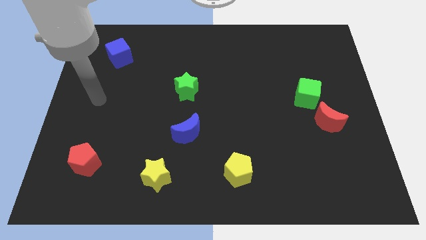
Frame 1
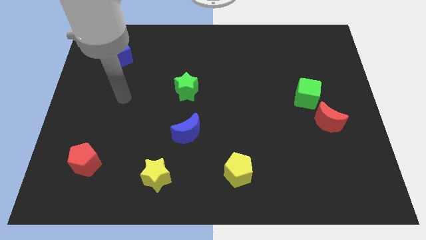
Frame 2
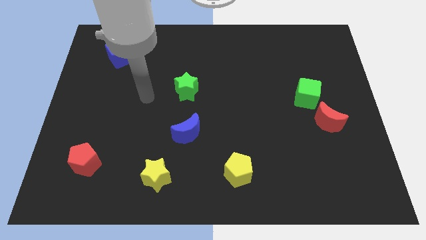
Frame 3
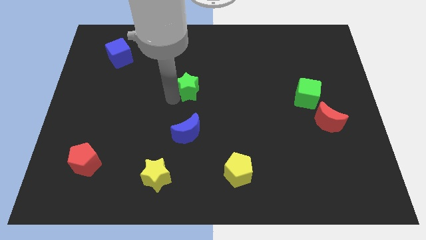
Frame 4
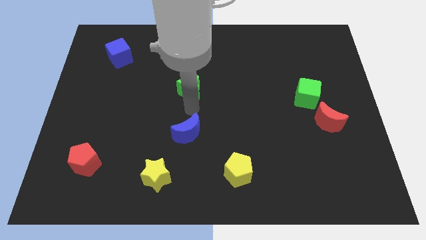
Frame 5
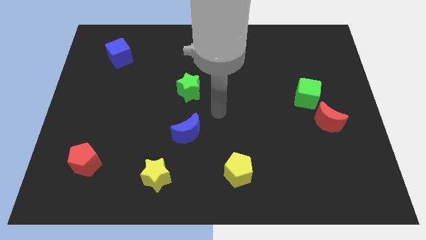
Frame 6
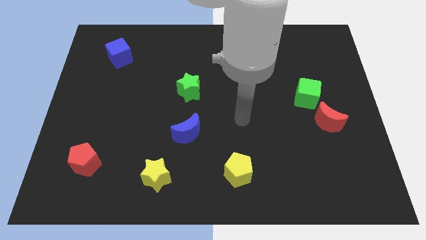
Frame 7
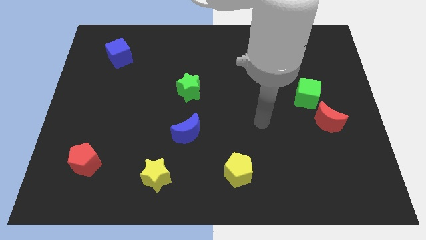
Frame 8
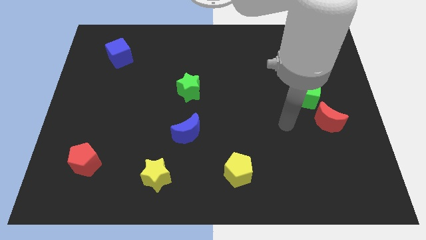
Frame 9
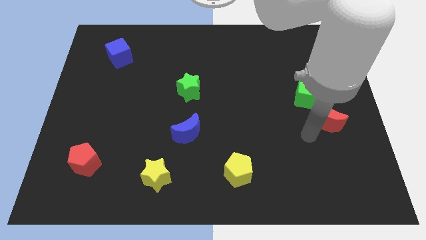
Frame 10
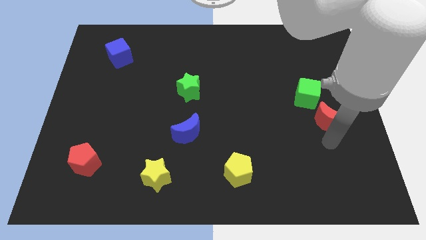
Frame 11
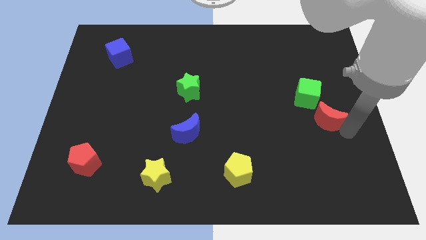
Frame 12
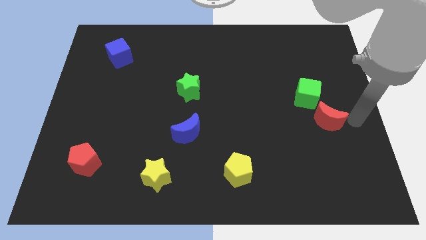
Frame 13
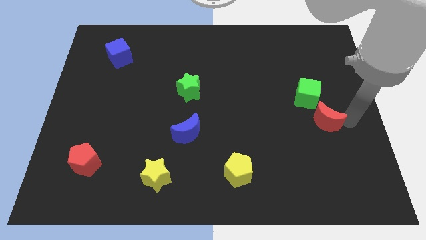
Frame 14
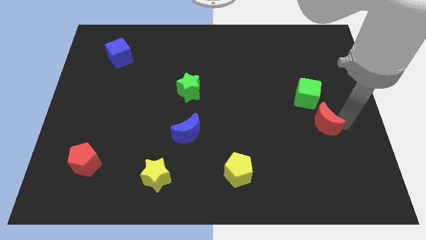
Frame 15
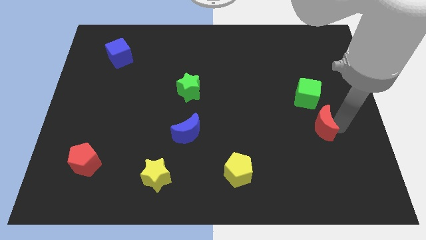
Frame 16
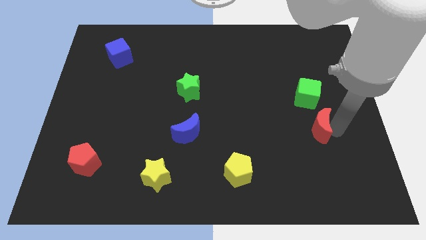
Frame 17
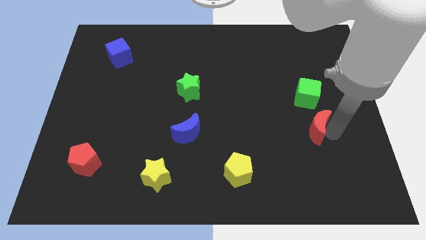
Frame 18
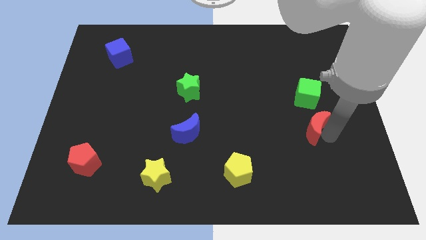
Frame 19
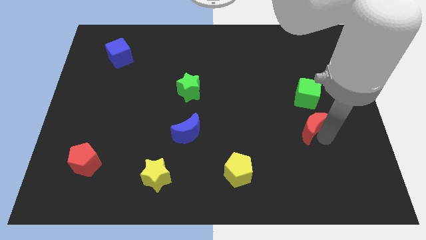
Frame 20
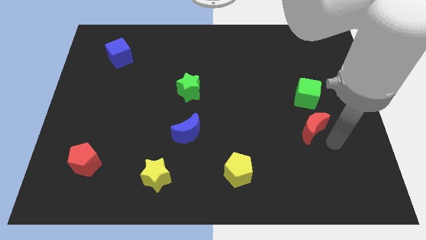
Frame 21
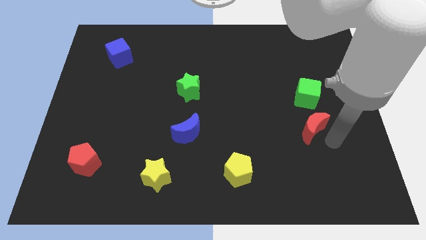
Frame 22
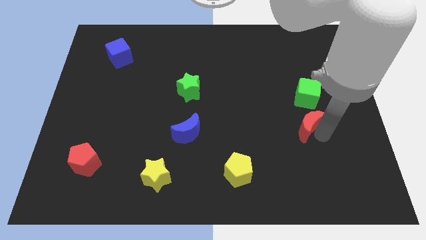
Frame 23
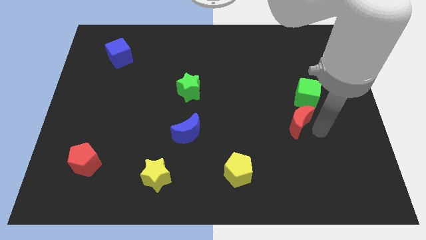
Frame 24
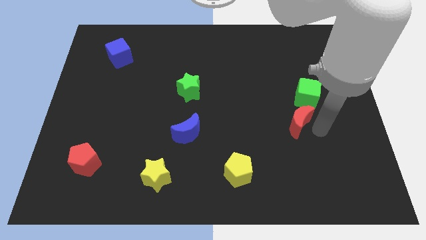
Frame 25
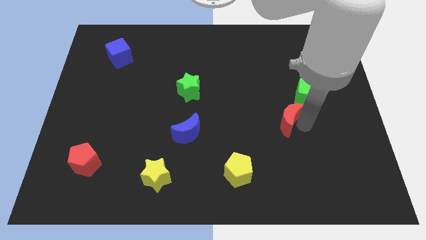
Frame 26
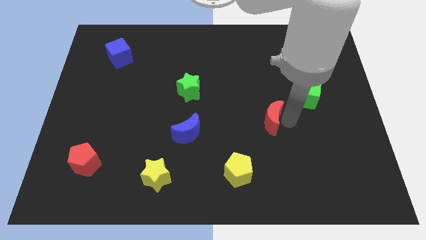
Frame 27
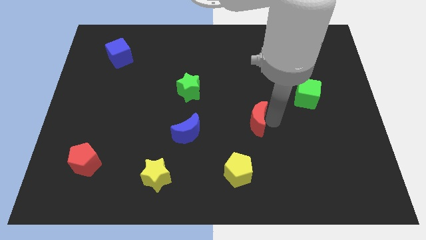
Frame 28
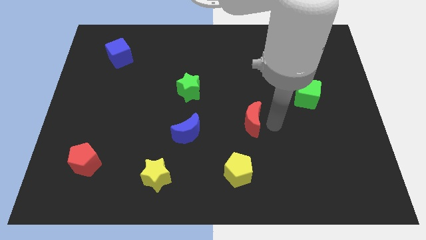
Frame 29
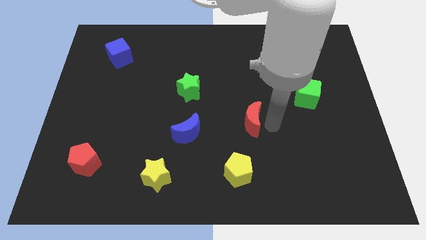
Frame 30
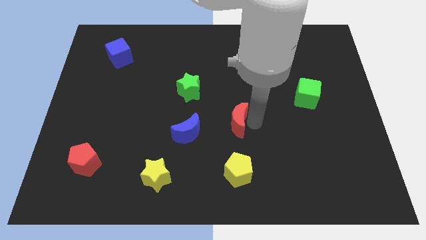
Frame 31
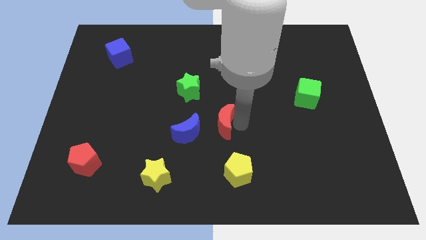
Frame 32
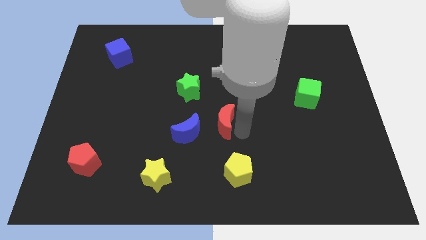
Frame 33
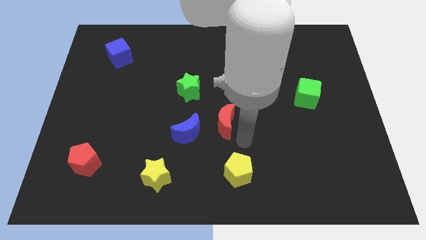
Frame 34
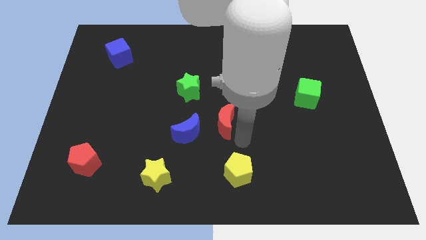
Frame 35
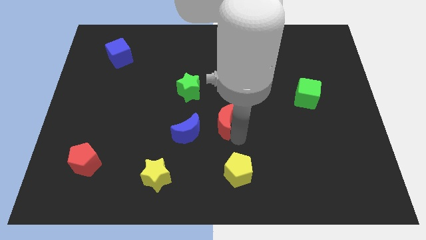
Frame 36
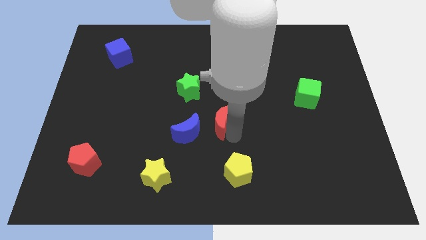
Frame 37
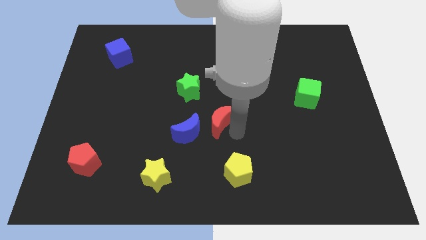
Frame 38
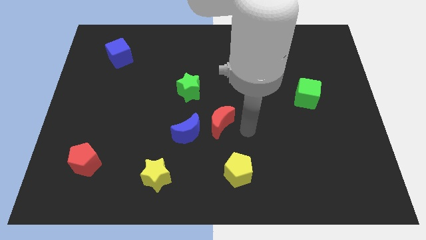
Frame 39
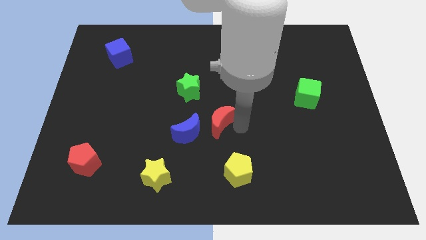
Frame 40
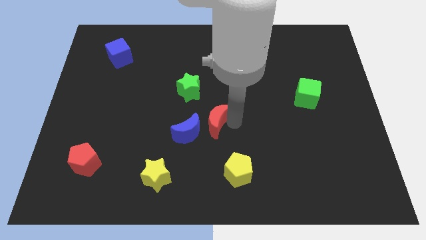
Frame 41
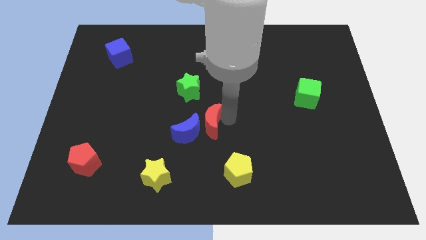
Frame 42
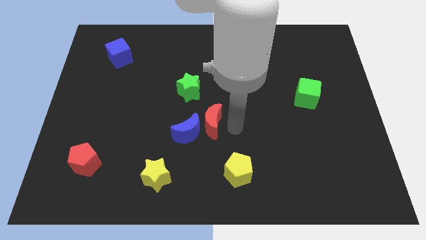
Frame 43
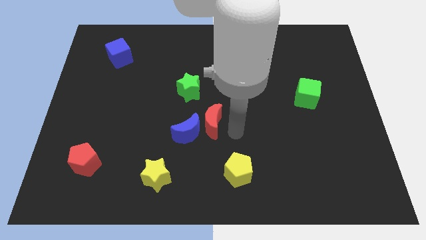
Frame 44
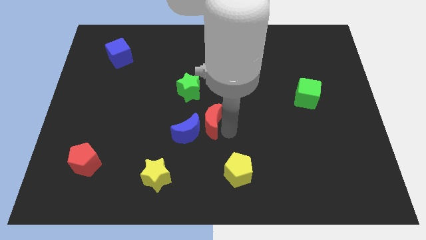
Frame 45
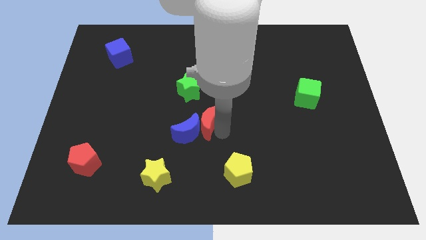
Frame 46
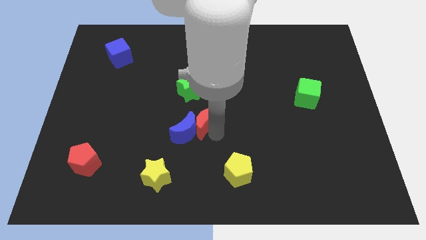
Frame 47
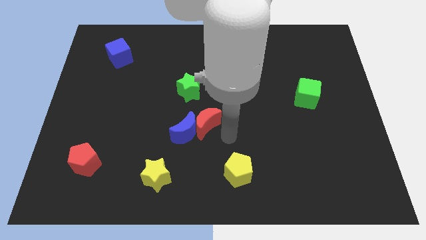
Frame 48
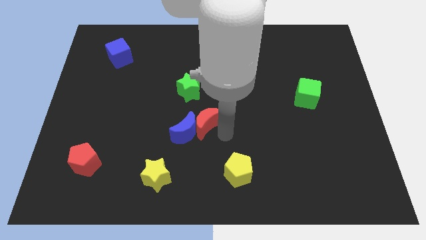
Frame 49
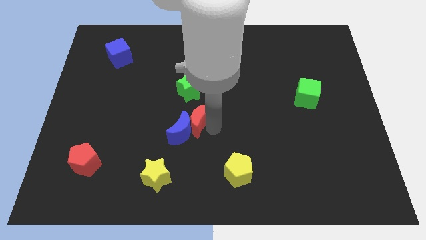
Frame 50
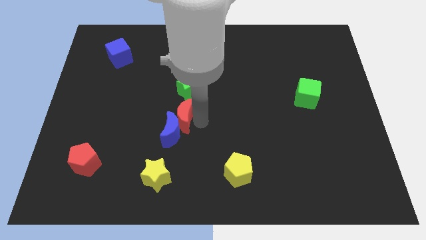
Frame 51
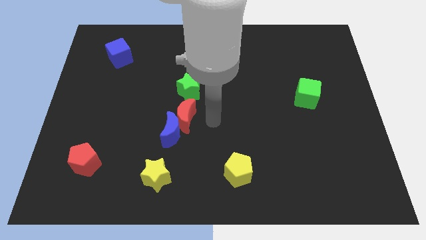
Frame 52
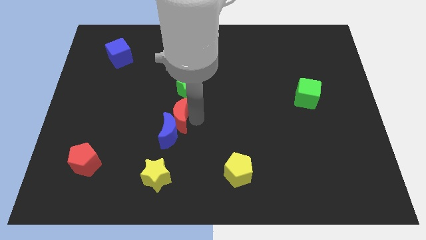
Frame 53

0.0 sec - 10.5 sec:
slide the red moon diagonally up and to the left of the blue moon

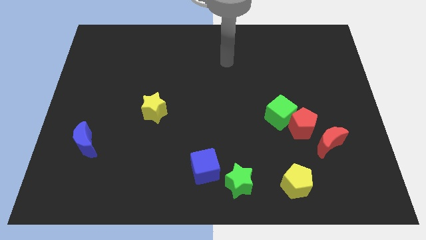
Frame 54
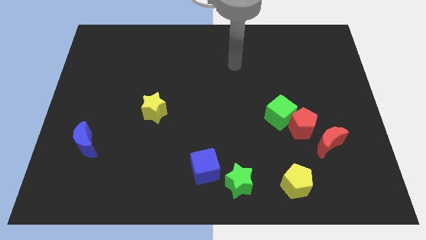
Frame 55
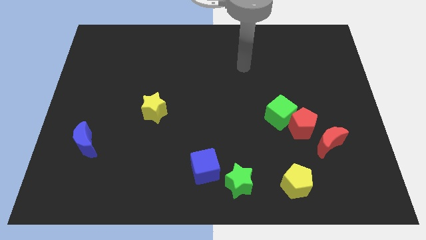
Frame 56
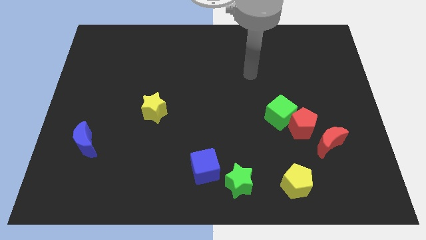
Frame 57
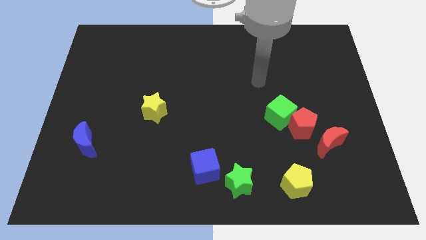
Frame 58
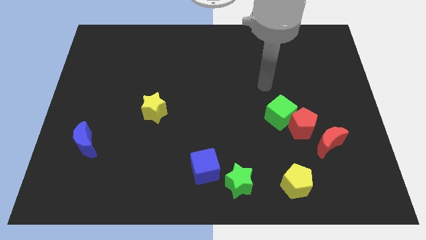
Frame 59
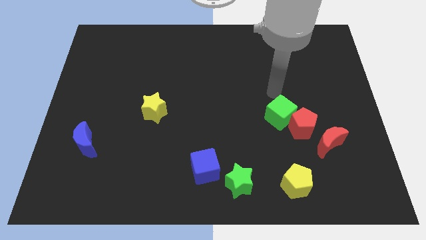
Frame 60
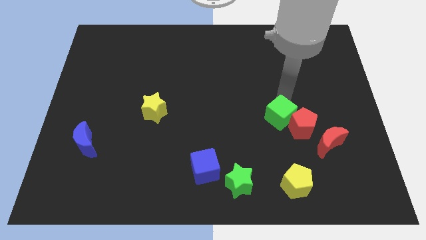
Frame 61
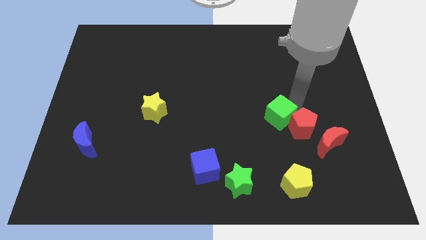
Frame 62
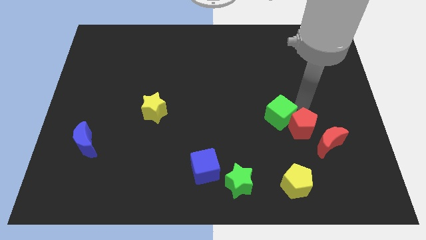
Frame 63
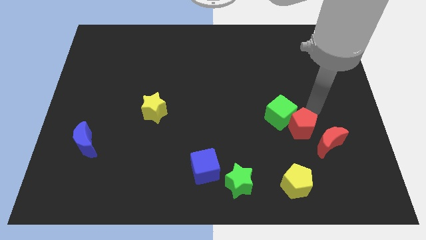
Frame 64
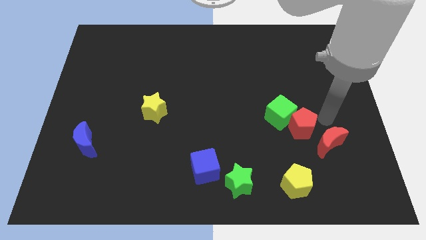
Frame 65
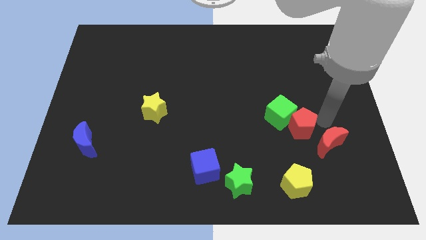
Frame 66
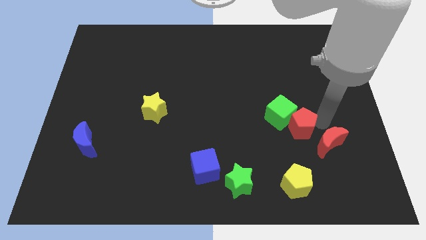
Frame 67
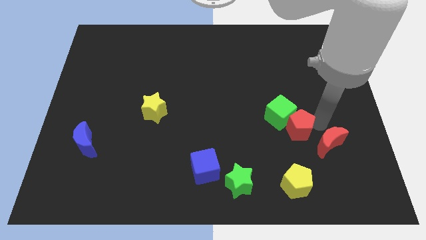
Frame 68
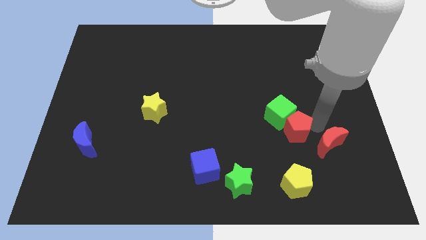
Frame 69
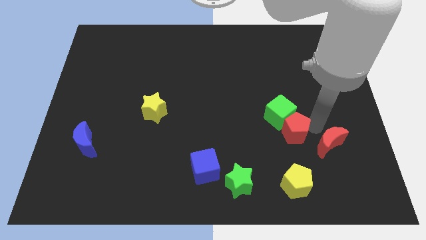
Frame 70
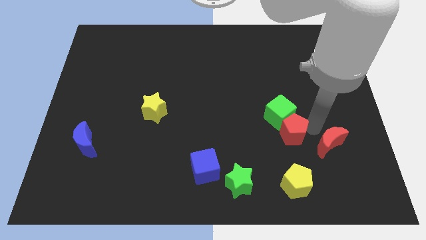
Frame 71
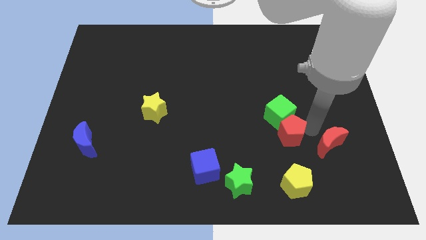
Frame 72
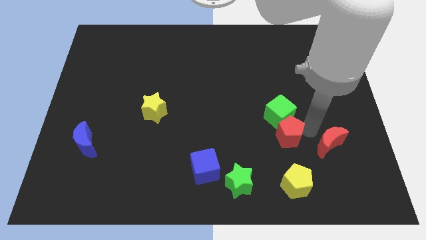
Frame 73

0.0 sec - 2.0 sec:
put the red pentagon diagonally down and to the left of the green cube
